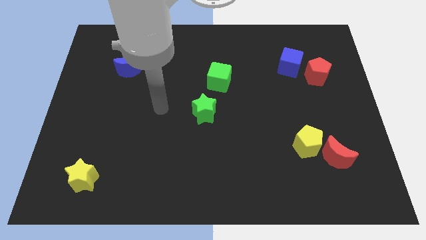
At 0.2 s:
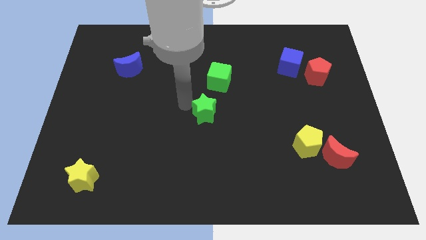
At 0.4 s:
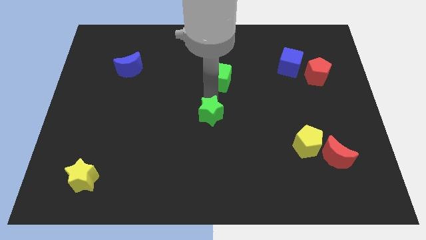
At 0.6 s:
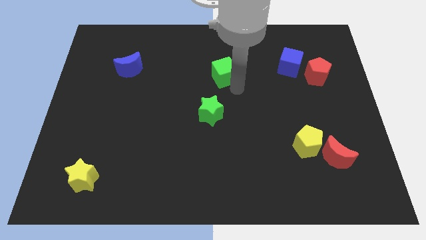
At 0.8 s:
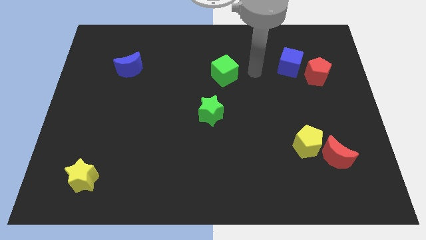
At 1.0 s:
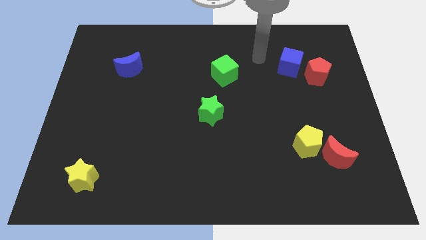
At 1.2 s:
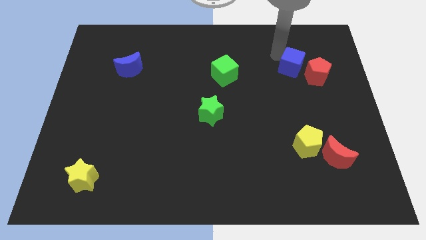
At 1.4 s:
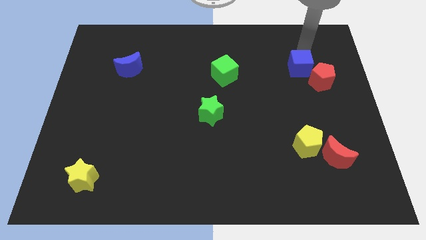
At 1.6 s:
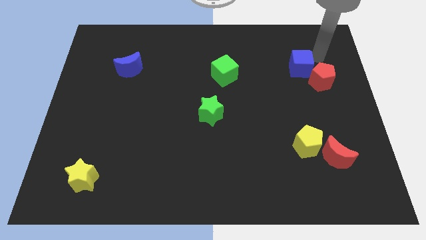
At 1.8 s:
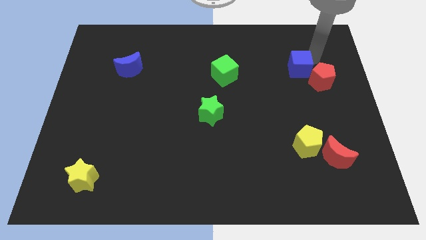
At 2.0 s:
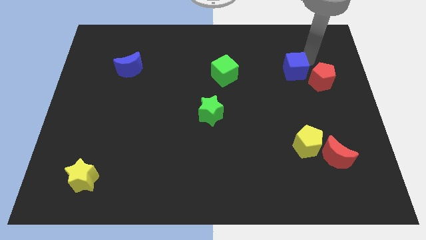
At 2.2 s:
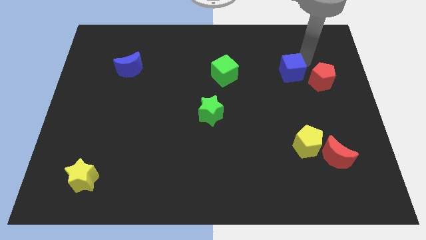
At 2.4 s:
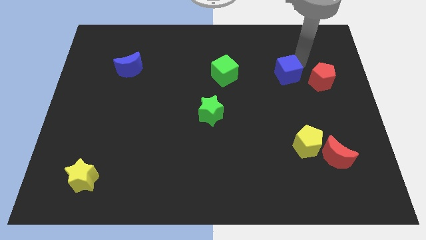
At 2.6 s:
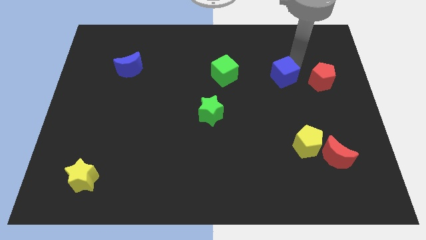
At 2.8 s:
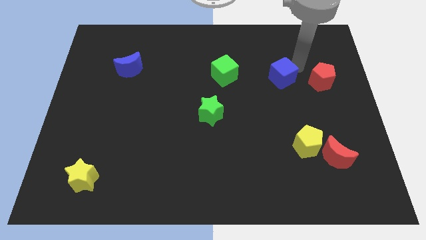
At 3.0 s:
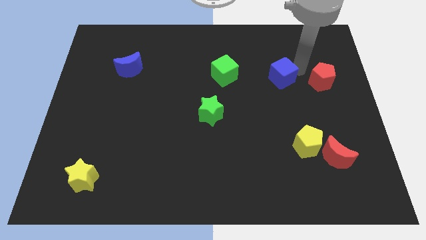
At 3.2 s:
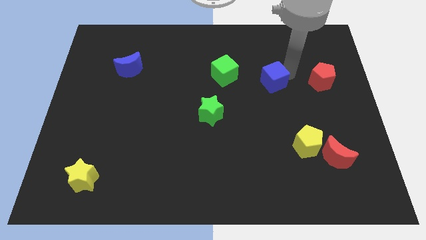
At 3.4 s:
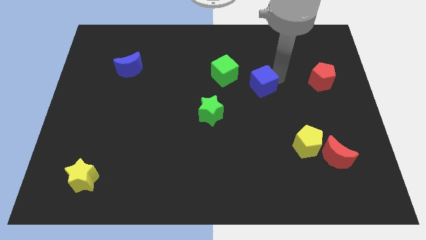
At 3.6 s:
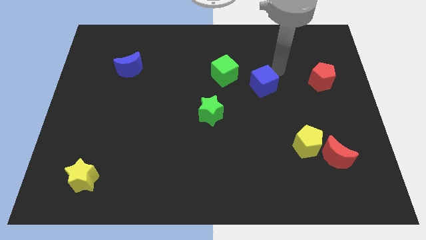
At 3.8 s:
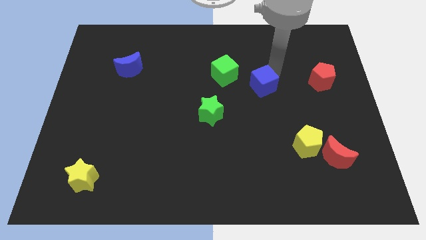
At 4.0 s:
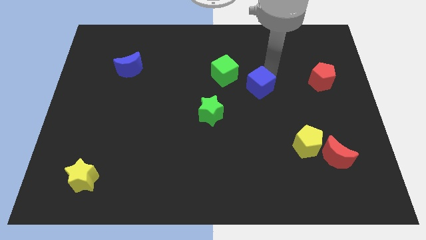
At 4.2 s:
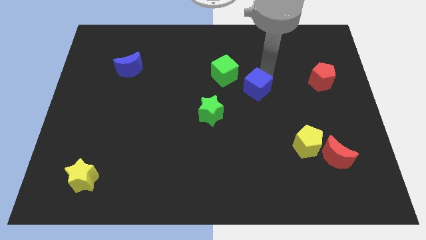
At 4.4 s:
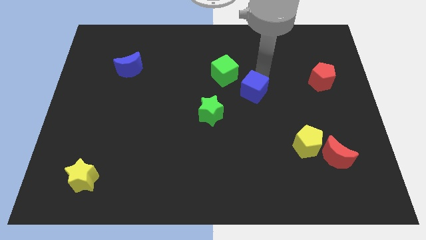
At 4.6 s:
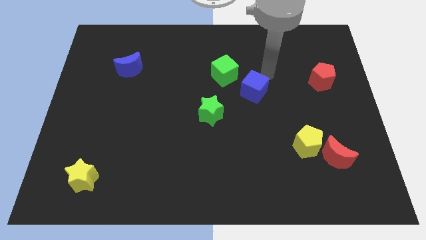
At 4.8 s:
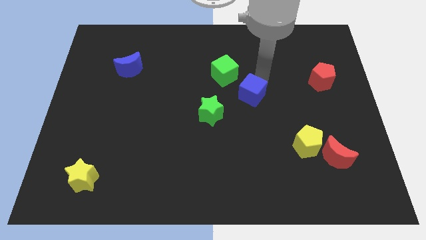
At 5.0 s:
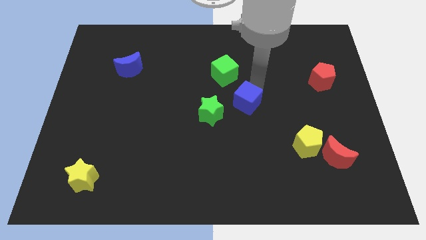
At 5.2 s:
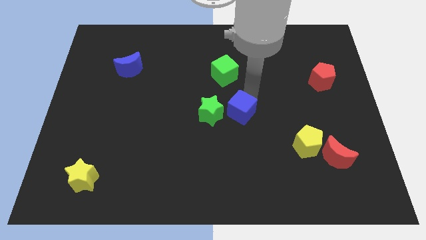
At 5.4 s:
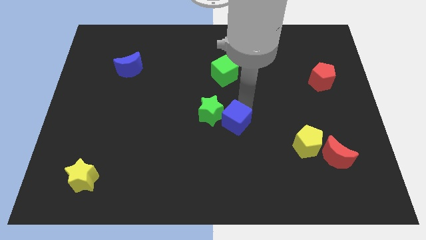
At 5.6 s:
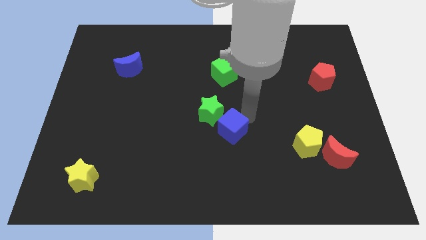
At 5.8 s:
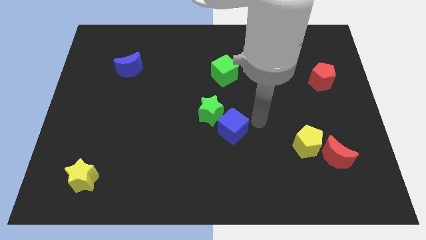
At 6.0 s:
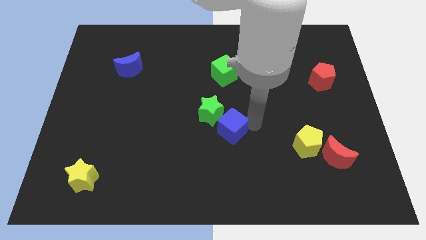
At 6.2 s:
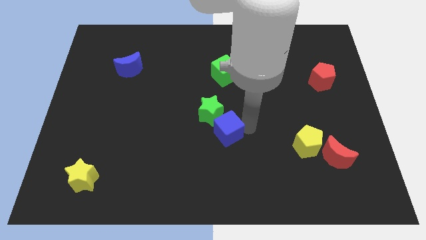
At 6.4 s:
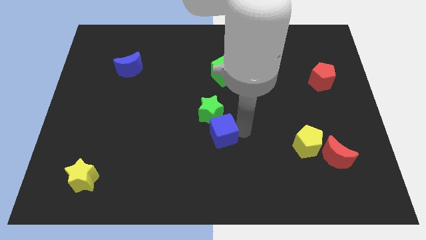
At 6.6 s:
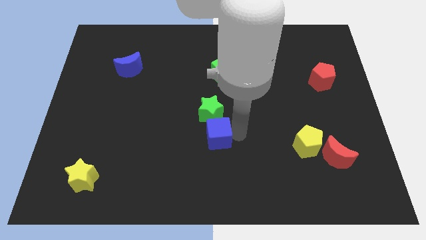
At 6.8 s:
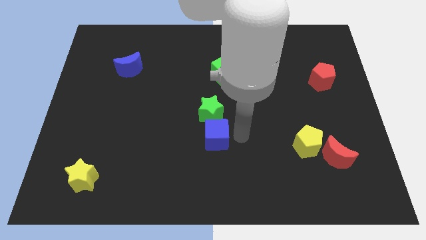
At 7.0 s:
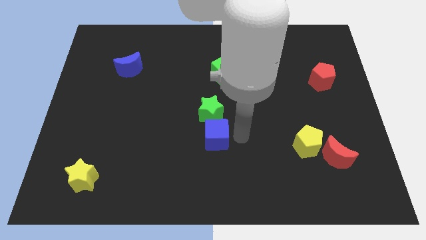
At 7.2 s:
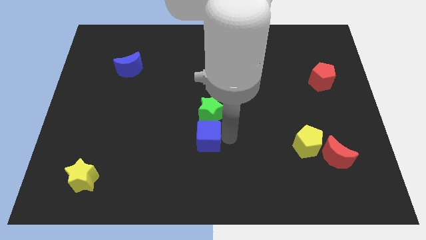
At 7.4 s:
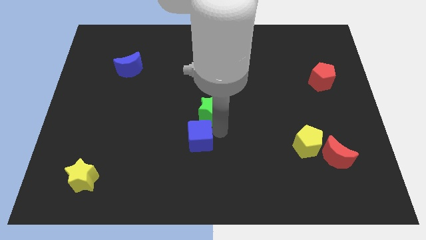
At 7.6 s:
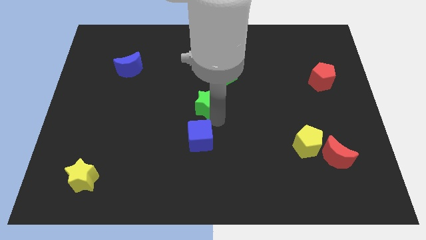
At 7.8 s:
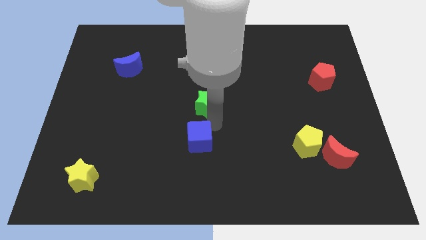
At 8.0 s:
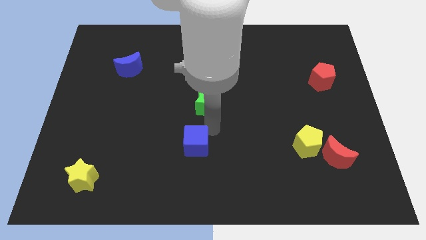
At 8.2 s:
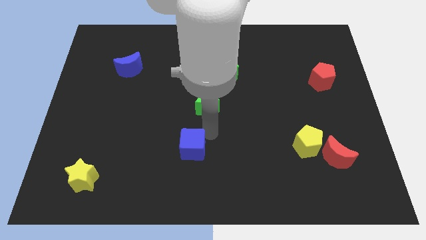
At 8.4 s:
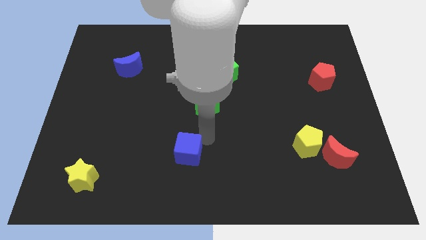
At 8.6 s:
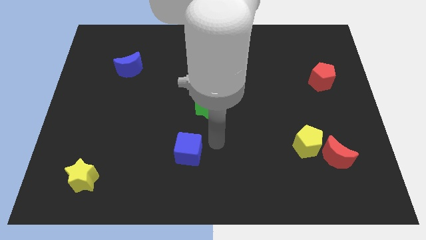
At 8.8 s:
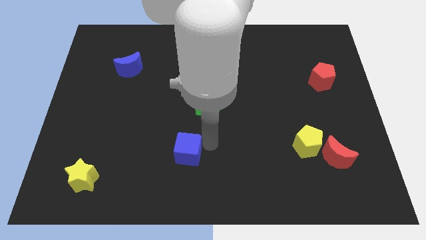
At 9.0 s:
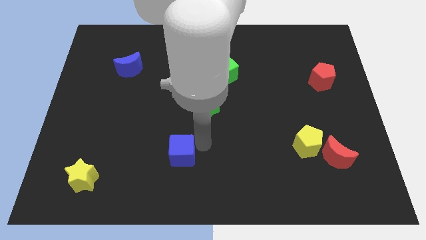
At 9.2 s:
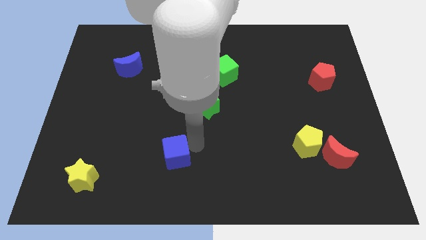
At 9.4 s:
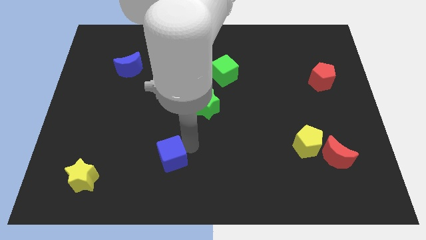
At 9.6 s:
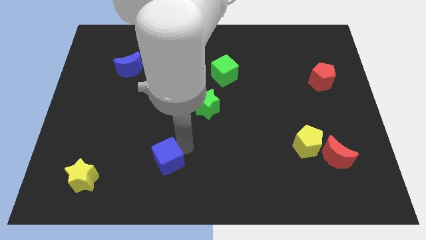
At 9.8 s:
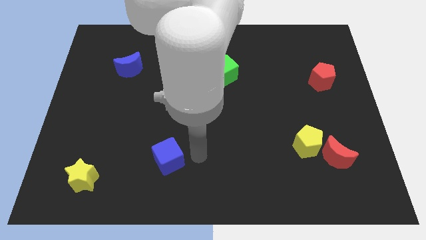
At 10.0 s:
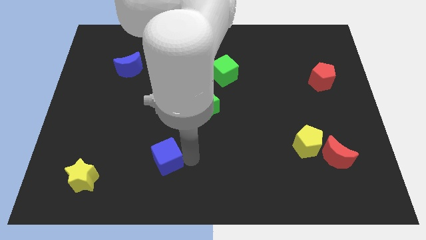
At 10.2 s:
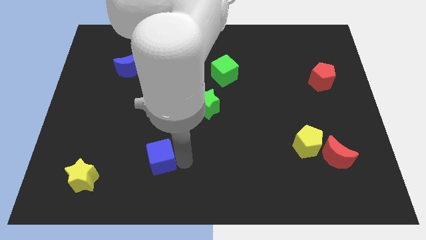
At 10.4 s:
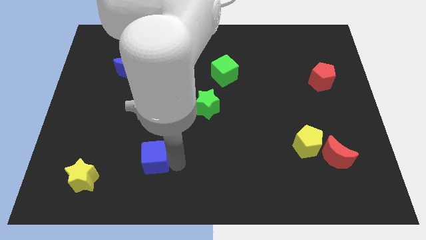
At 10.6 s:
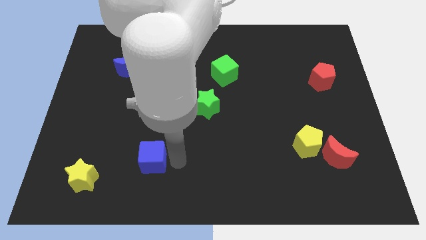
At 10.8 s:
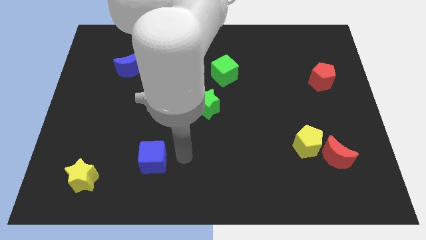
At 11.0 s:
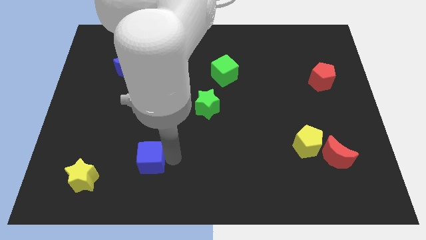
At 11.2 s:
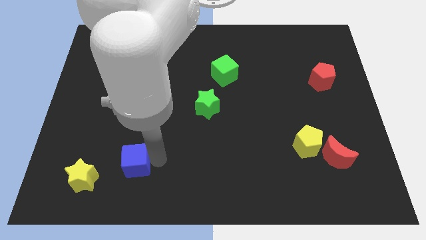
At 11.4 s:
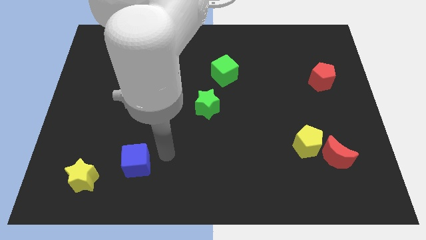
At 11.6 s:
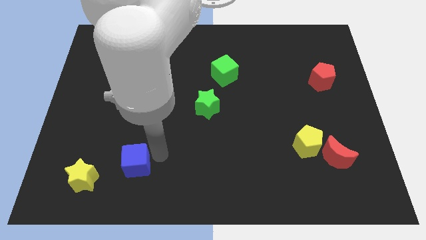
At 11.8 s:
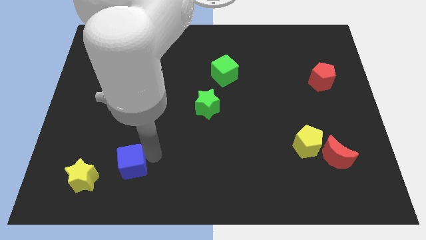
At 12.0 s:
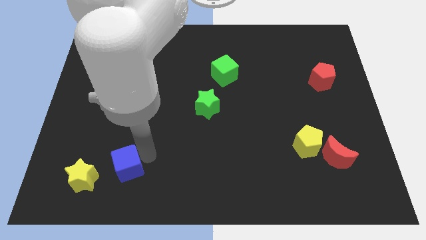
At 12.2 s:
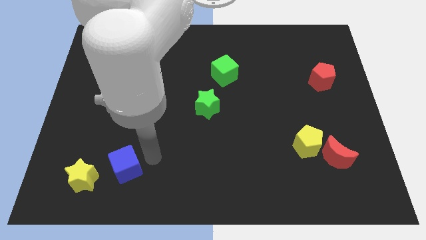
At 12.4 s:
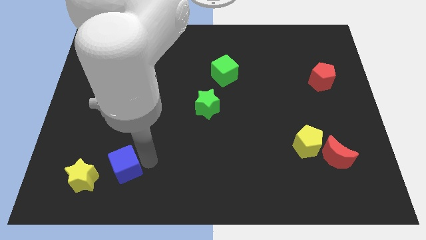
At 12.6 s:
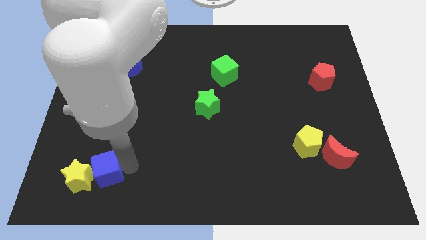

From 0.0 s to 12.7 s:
move the blue cube towards the yellow star

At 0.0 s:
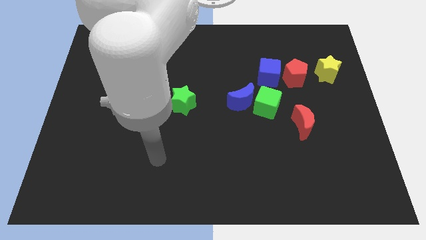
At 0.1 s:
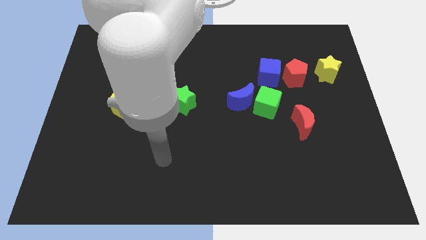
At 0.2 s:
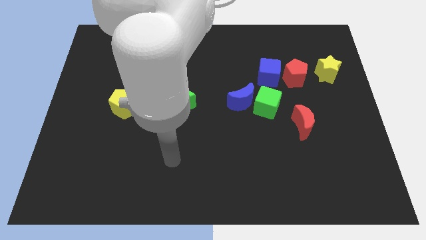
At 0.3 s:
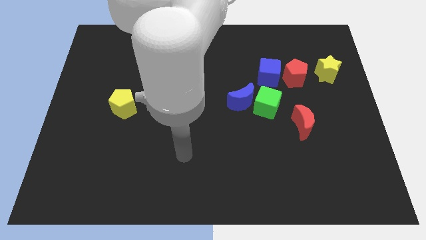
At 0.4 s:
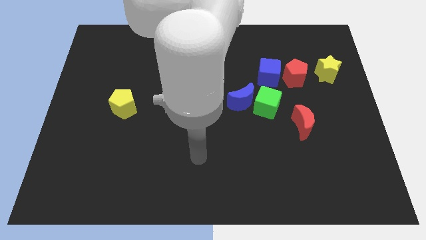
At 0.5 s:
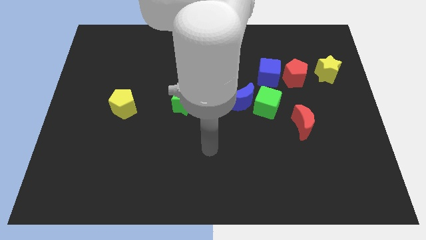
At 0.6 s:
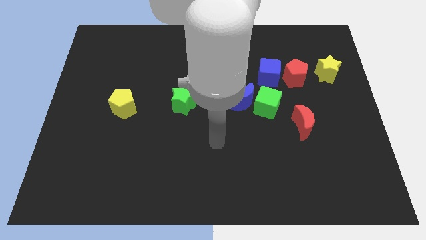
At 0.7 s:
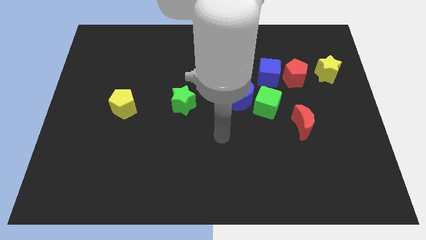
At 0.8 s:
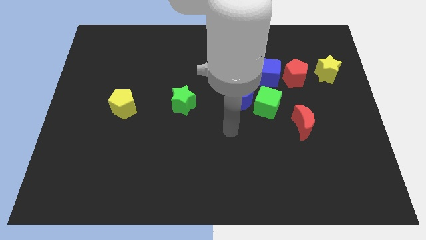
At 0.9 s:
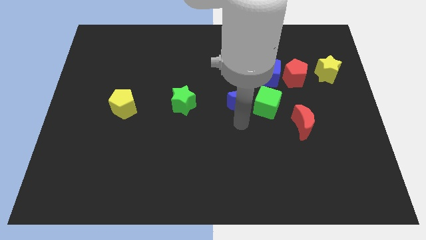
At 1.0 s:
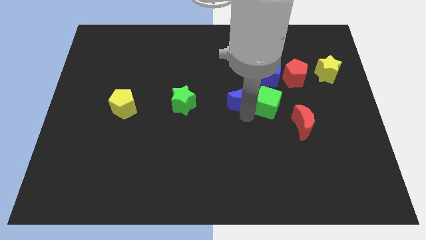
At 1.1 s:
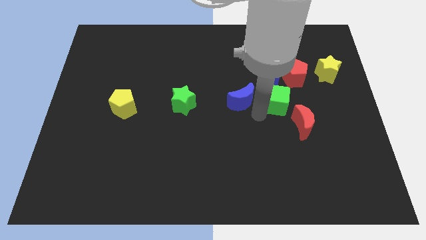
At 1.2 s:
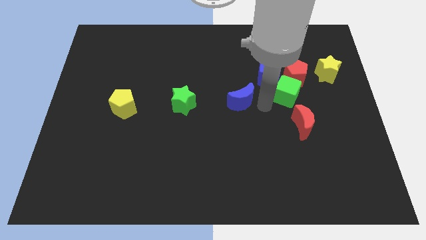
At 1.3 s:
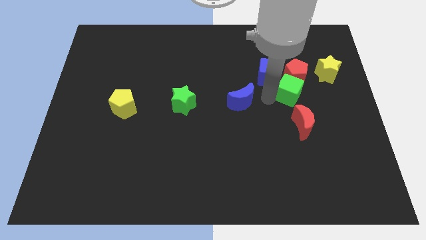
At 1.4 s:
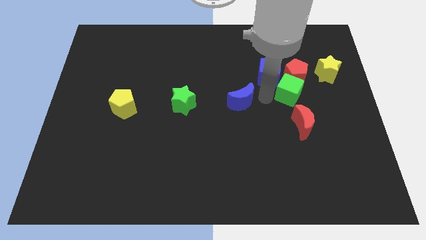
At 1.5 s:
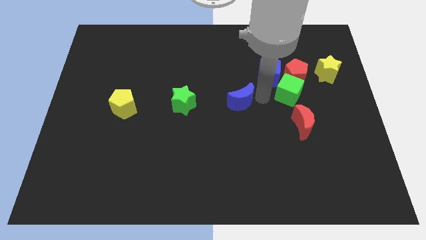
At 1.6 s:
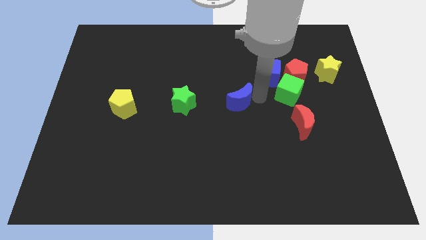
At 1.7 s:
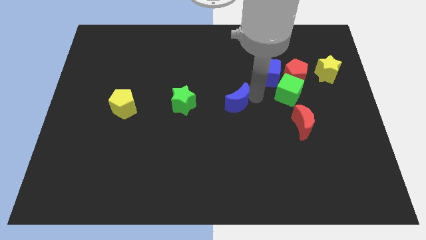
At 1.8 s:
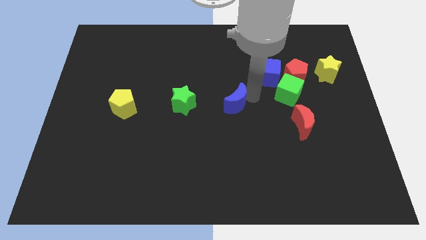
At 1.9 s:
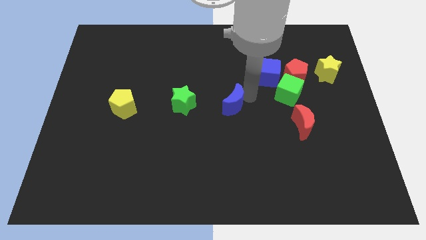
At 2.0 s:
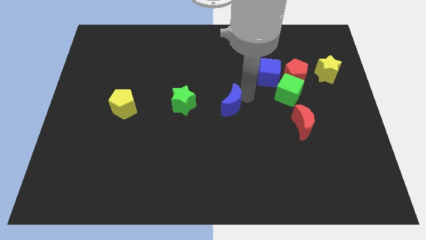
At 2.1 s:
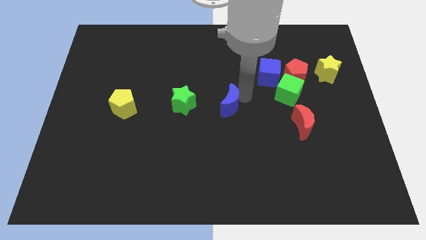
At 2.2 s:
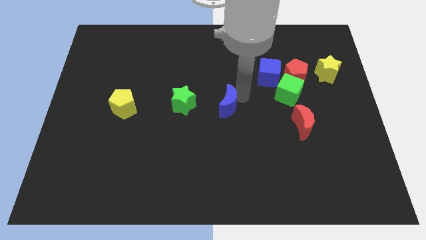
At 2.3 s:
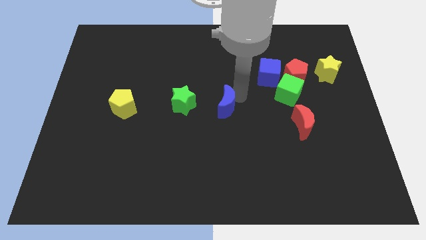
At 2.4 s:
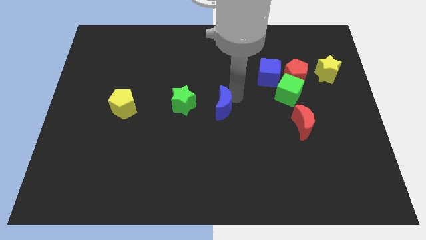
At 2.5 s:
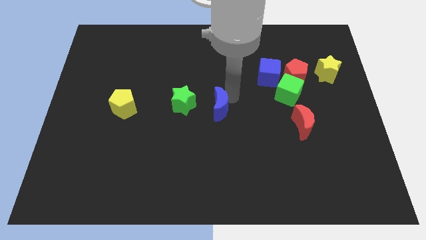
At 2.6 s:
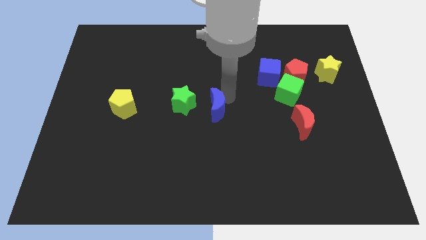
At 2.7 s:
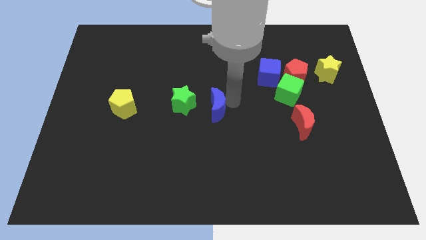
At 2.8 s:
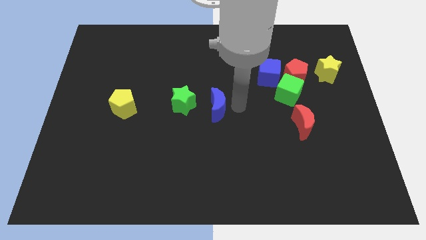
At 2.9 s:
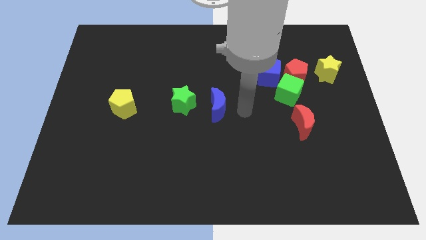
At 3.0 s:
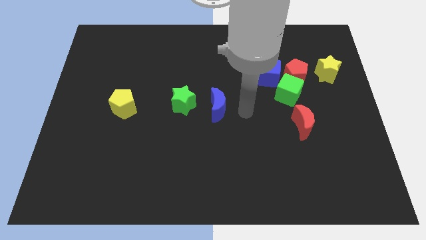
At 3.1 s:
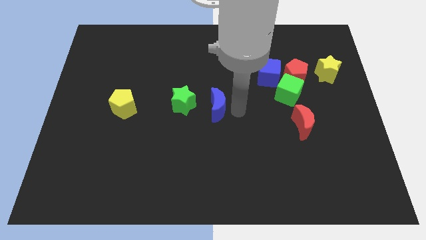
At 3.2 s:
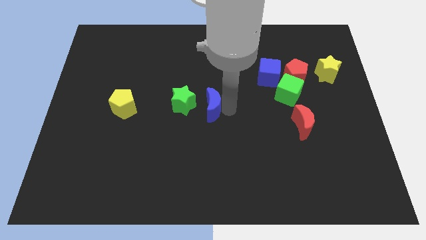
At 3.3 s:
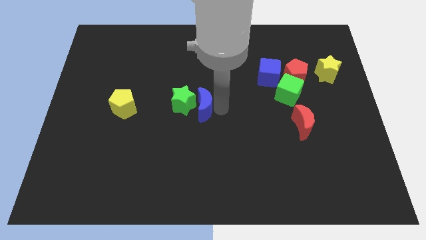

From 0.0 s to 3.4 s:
put the blue moon to the green star
